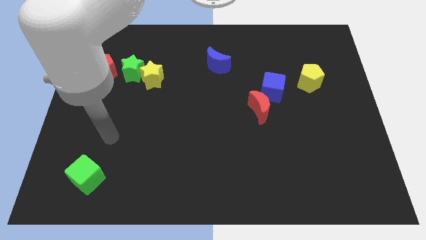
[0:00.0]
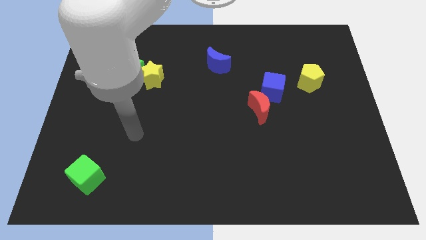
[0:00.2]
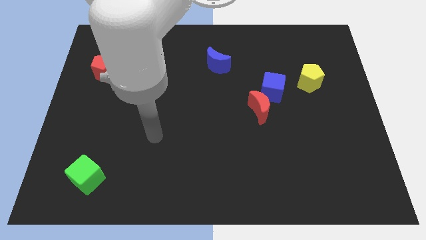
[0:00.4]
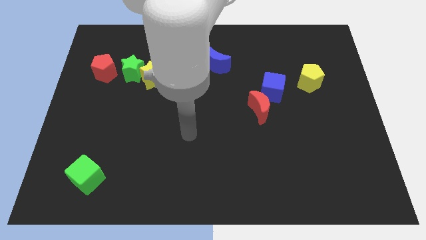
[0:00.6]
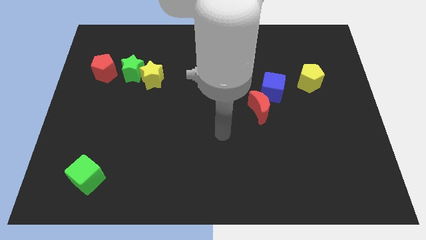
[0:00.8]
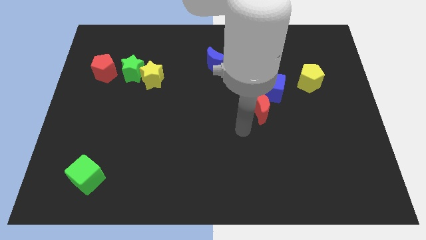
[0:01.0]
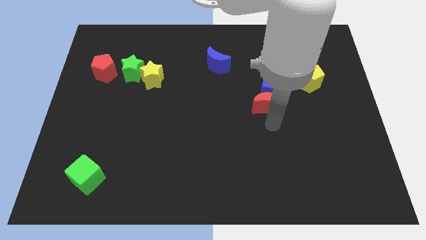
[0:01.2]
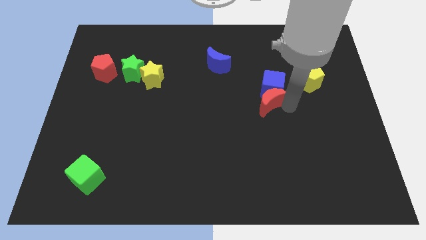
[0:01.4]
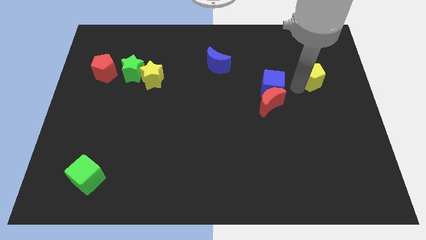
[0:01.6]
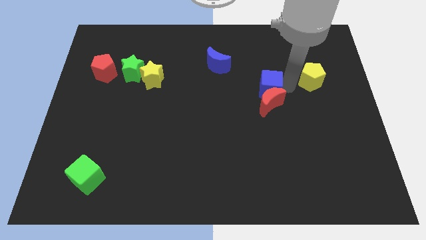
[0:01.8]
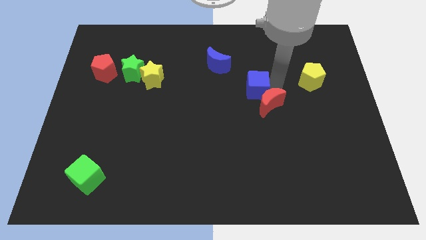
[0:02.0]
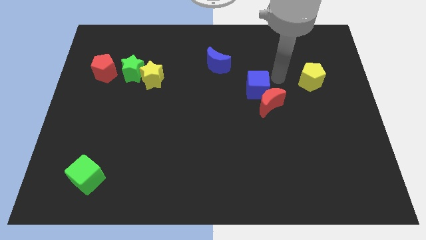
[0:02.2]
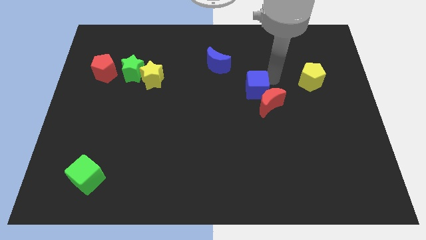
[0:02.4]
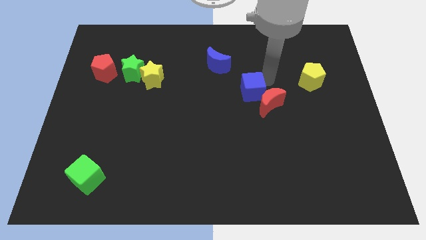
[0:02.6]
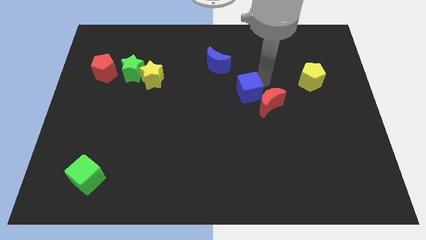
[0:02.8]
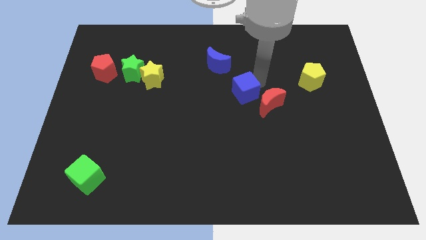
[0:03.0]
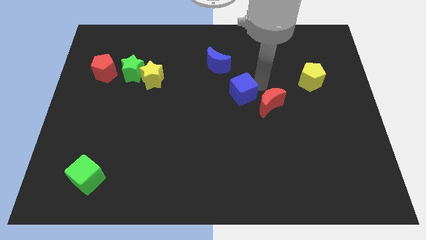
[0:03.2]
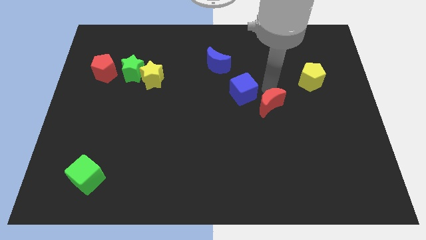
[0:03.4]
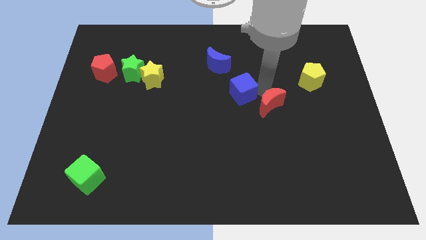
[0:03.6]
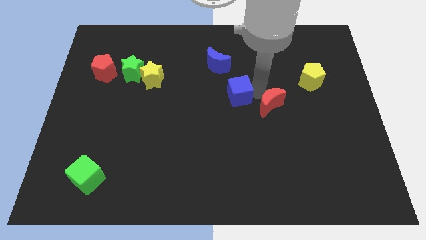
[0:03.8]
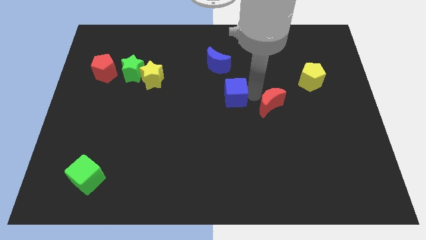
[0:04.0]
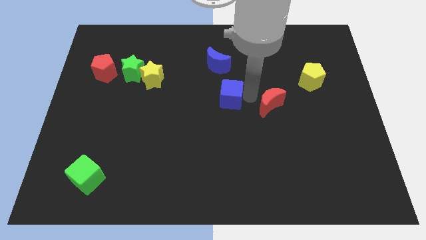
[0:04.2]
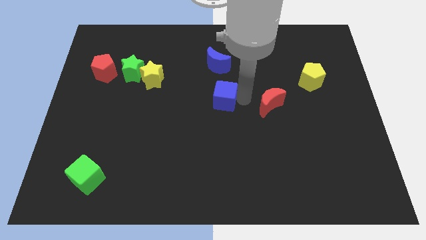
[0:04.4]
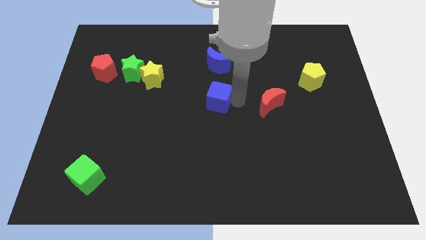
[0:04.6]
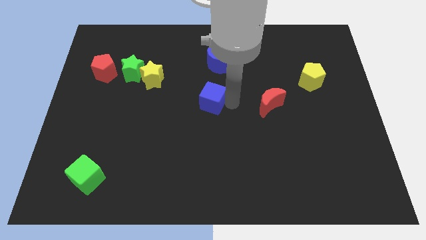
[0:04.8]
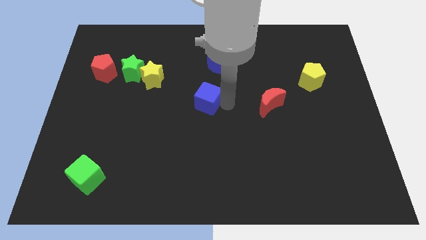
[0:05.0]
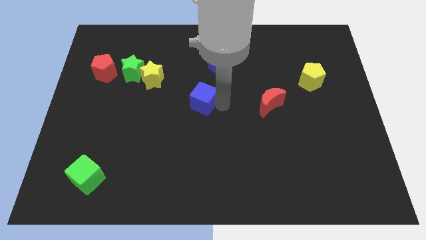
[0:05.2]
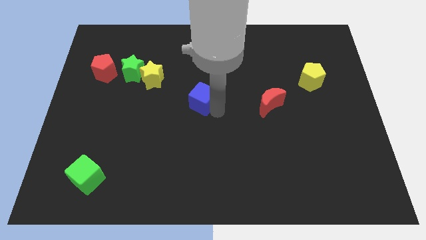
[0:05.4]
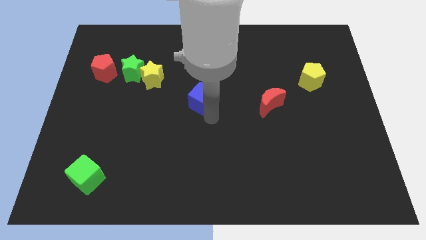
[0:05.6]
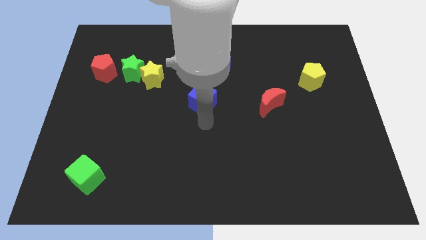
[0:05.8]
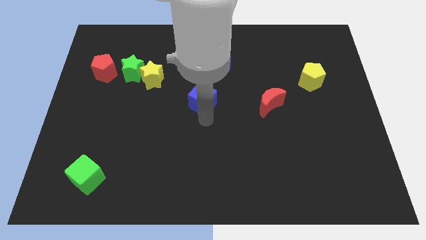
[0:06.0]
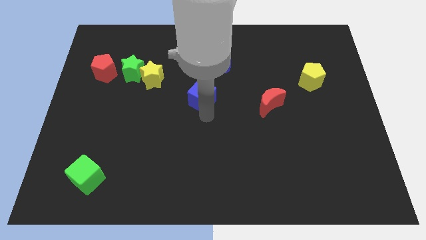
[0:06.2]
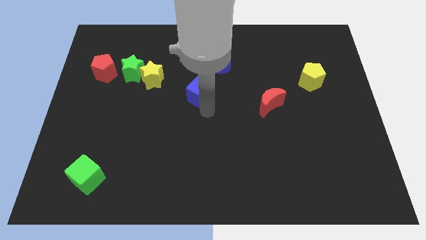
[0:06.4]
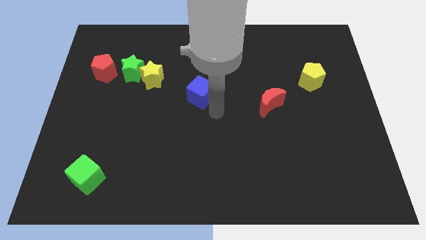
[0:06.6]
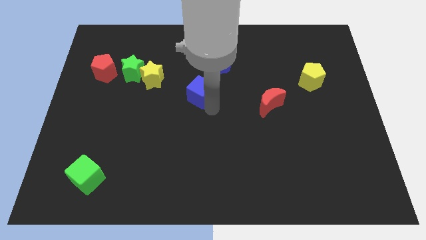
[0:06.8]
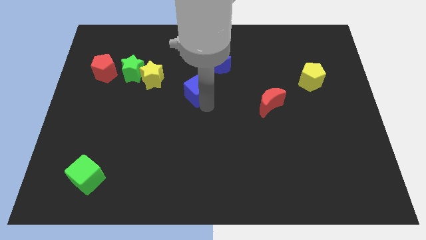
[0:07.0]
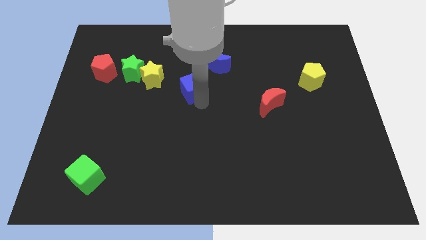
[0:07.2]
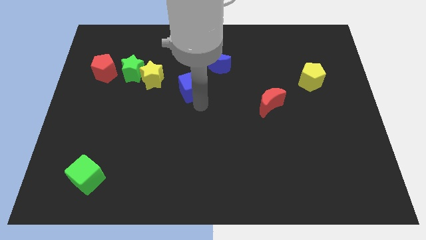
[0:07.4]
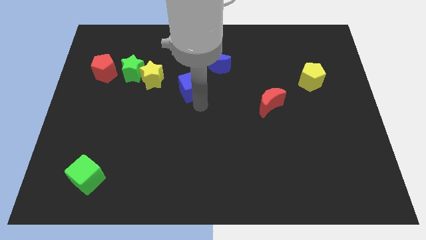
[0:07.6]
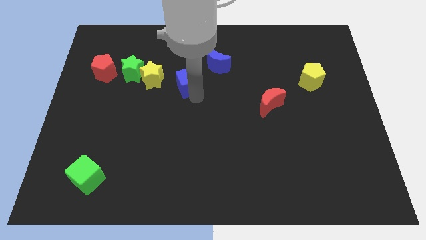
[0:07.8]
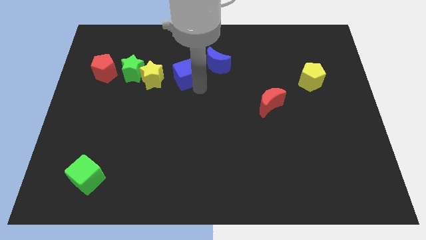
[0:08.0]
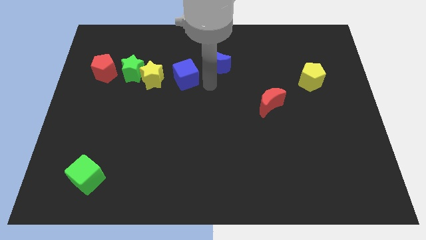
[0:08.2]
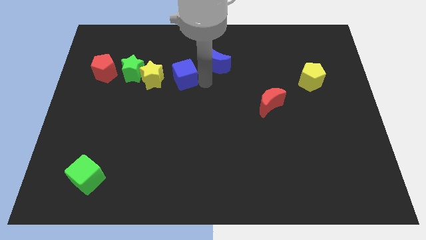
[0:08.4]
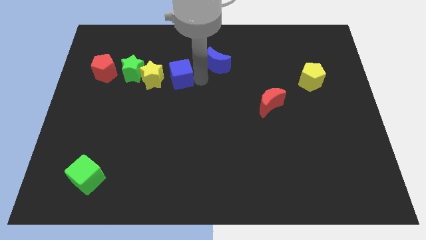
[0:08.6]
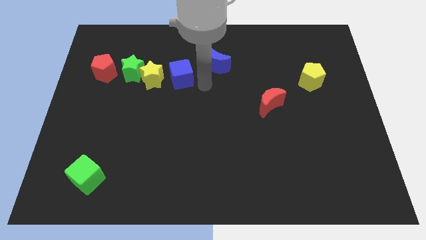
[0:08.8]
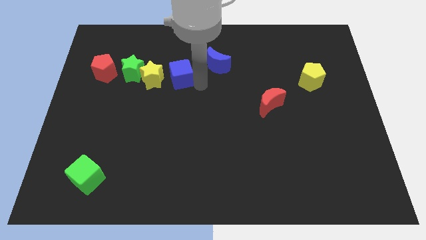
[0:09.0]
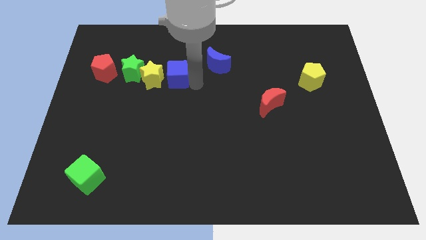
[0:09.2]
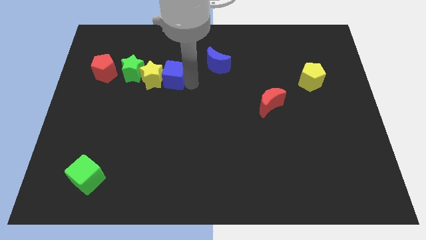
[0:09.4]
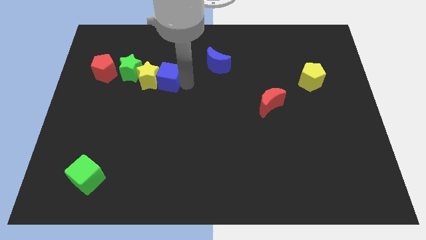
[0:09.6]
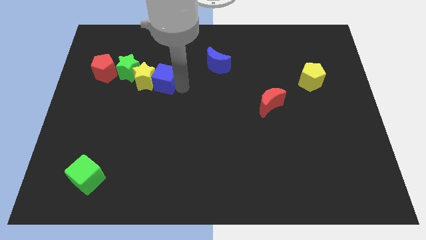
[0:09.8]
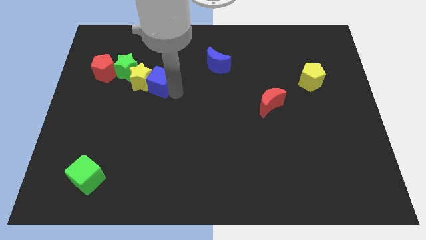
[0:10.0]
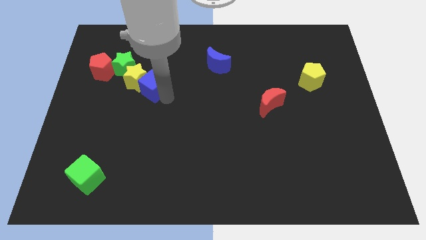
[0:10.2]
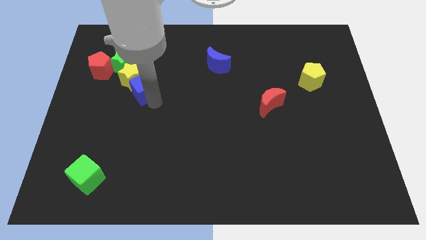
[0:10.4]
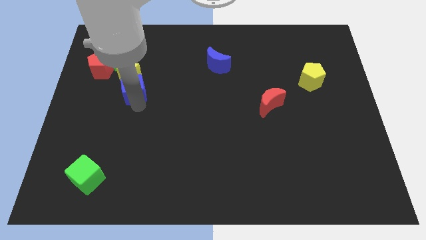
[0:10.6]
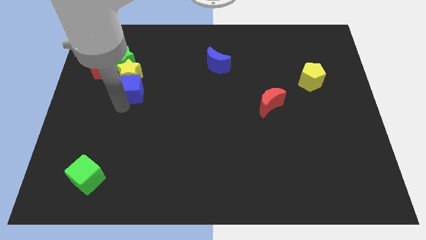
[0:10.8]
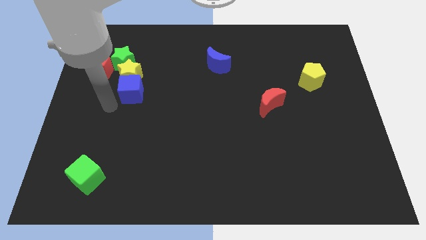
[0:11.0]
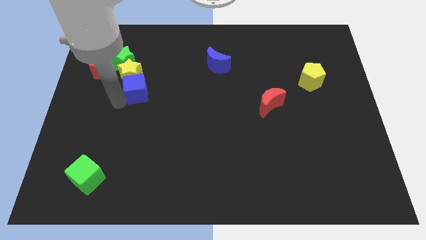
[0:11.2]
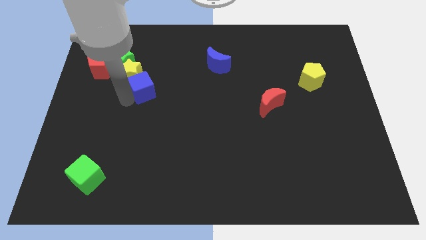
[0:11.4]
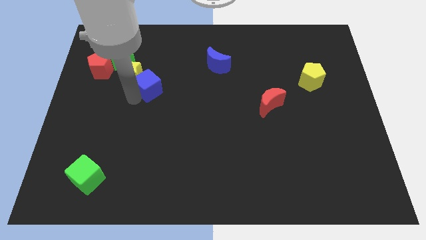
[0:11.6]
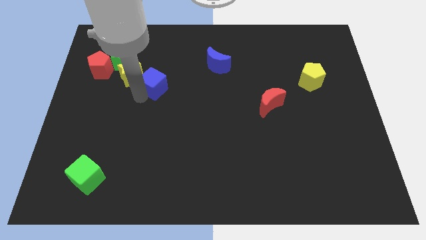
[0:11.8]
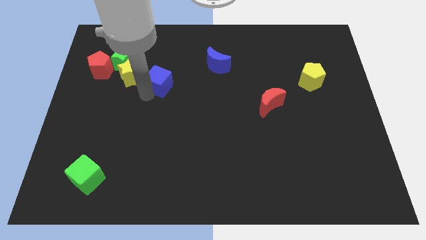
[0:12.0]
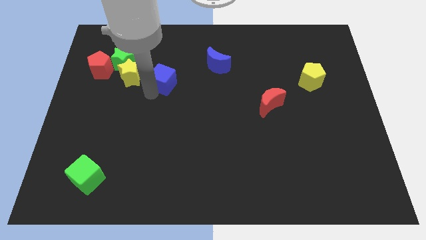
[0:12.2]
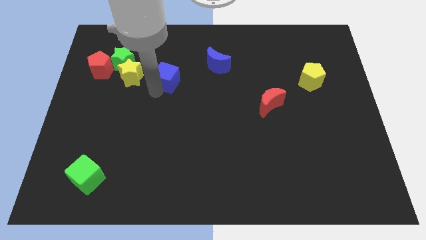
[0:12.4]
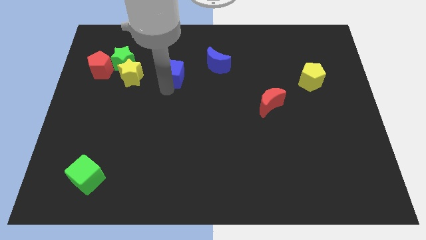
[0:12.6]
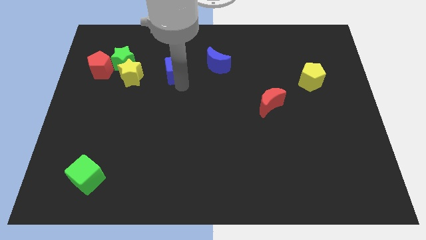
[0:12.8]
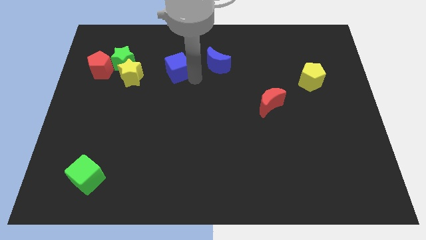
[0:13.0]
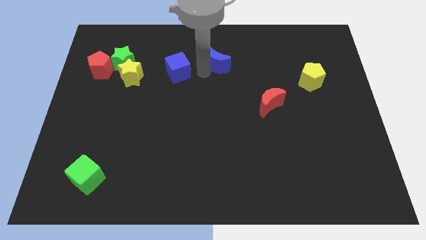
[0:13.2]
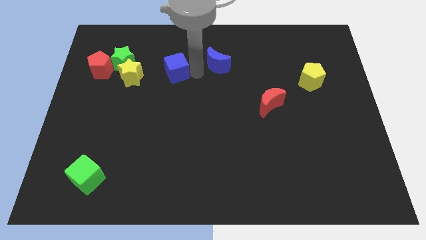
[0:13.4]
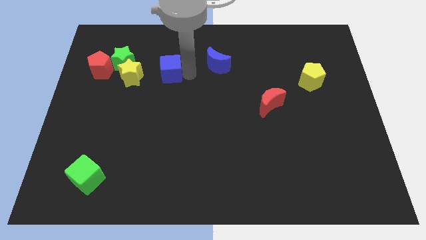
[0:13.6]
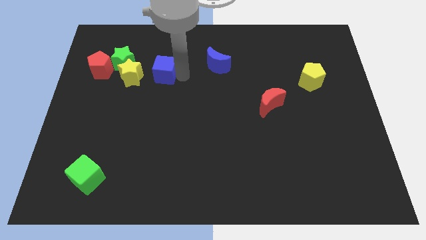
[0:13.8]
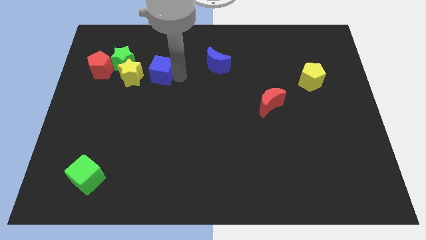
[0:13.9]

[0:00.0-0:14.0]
put the blue cube to the right of the red pentagon

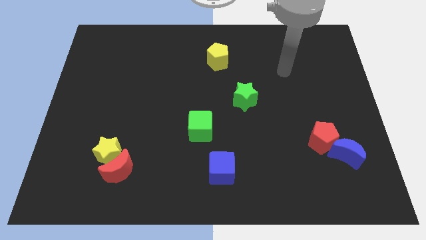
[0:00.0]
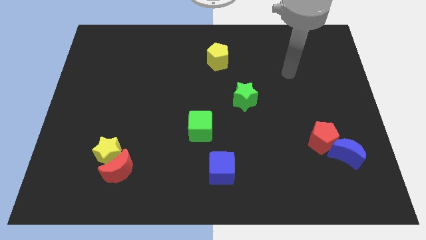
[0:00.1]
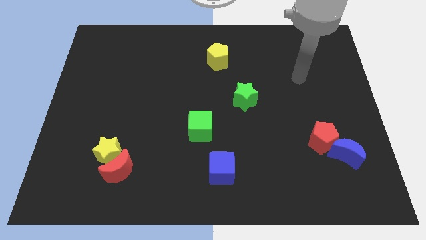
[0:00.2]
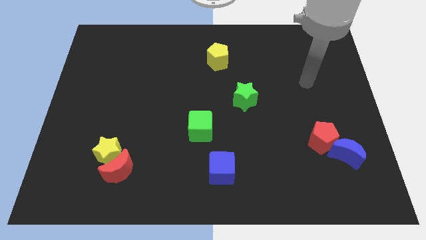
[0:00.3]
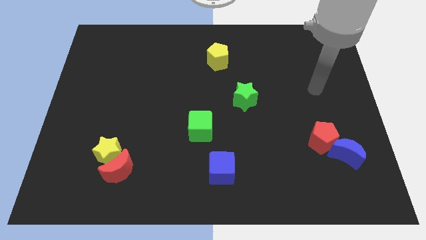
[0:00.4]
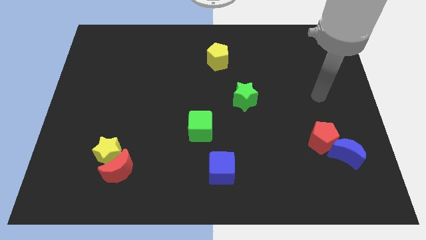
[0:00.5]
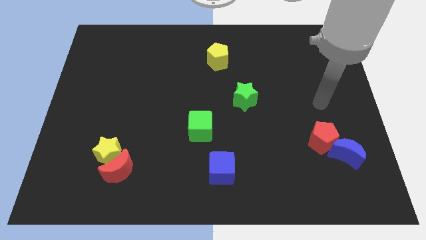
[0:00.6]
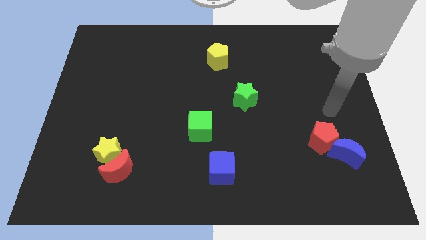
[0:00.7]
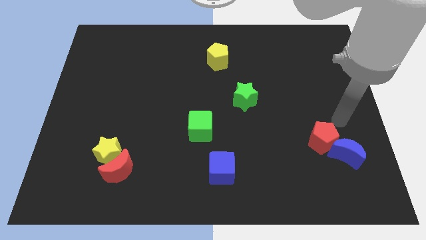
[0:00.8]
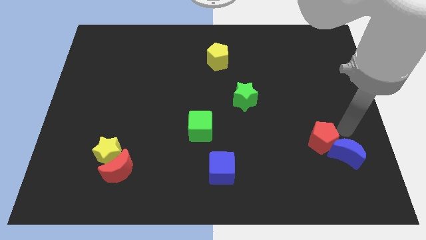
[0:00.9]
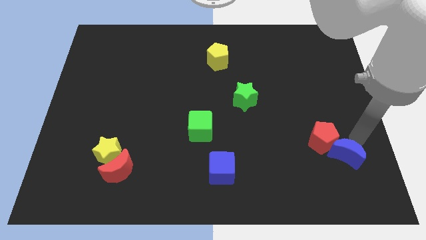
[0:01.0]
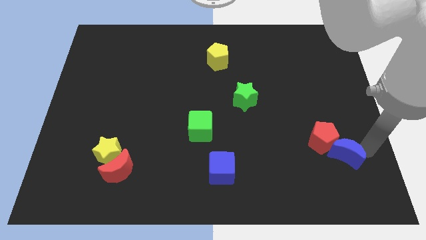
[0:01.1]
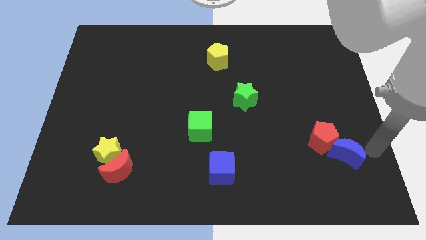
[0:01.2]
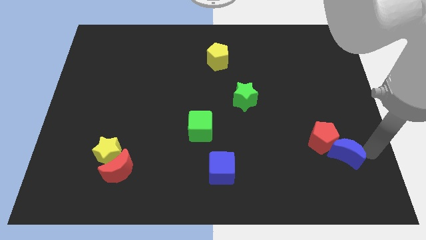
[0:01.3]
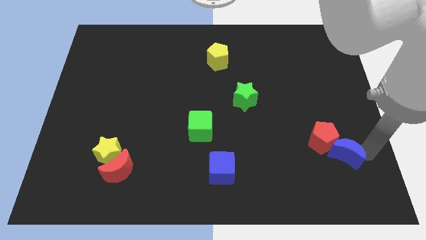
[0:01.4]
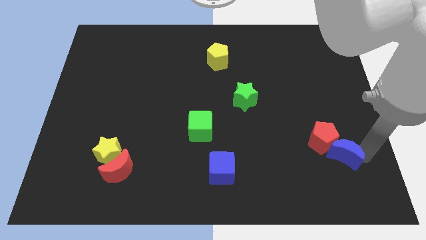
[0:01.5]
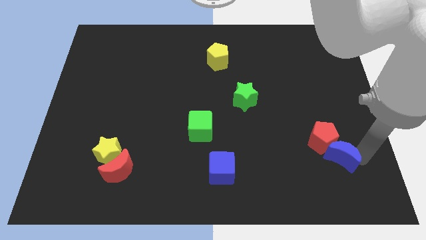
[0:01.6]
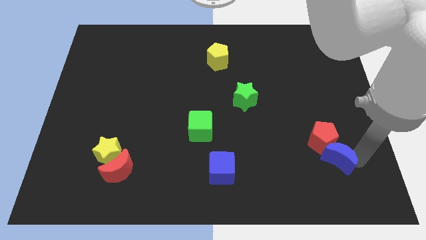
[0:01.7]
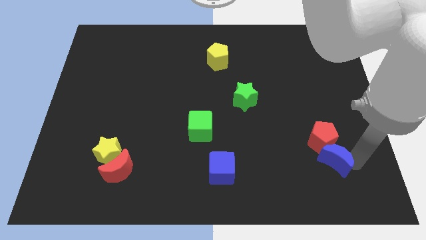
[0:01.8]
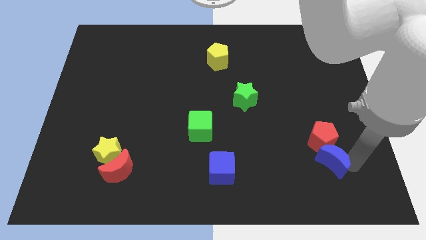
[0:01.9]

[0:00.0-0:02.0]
push the blue moon to the bottom left of the red pentagon
